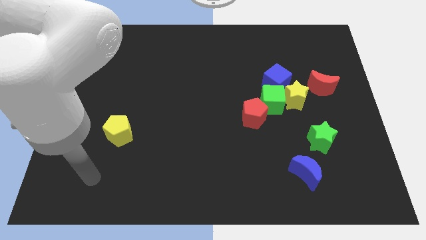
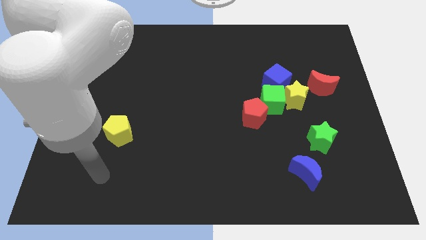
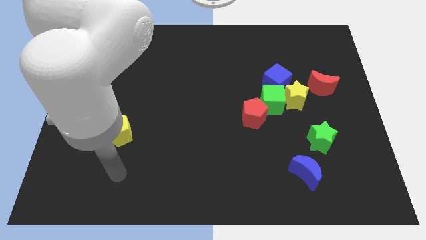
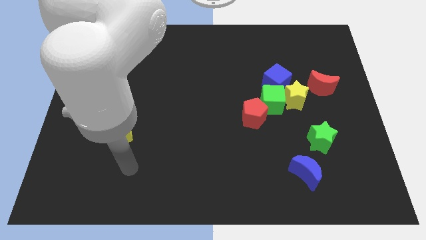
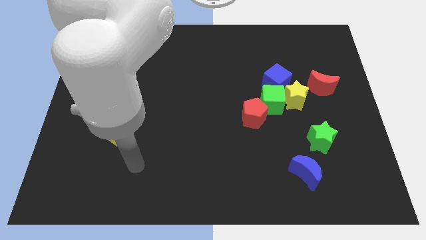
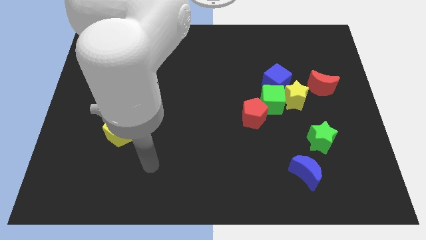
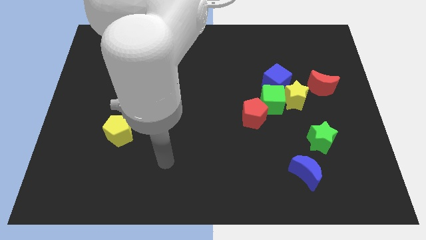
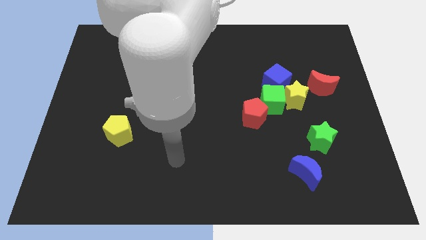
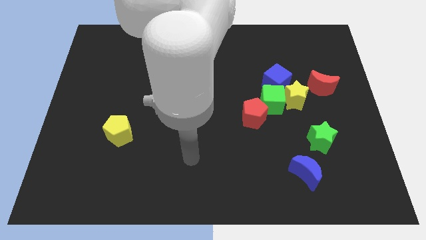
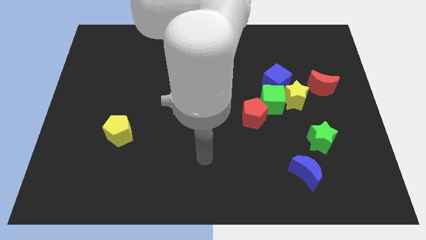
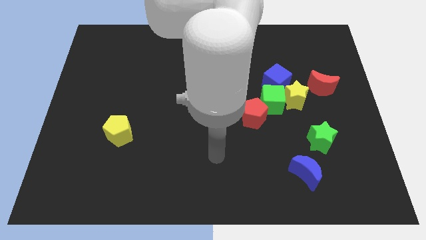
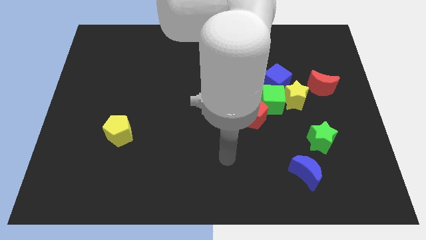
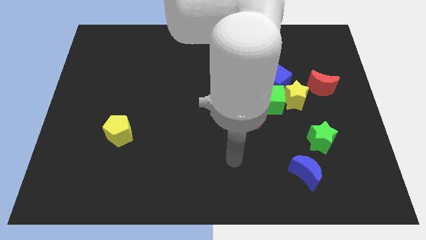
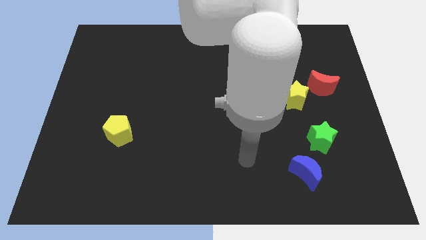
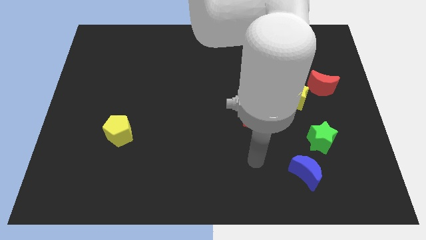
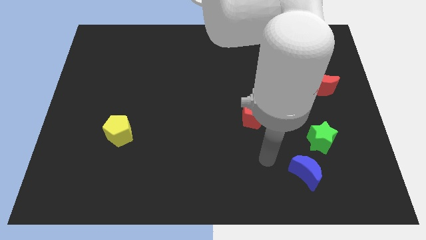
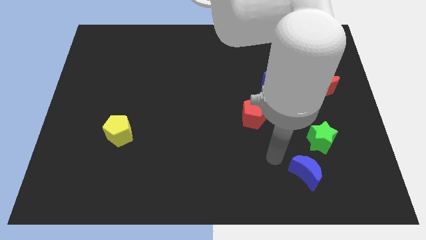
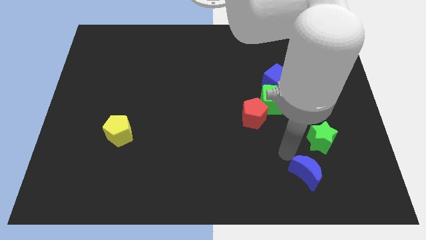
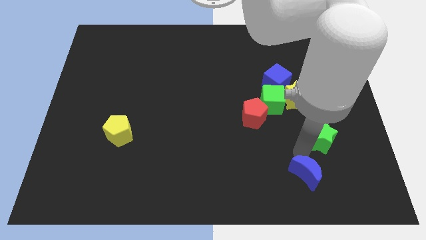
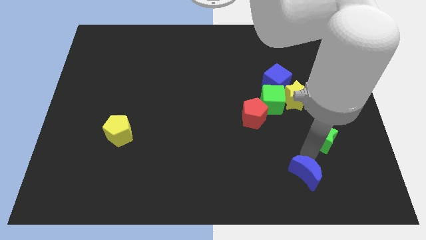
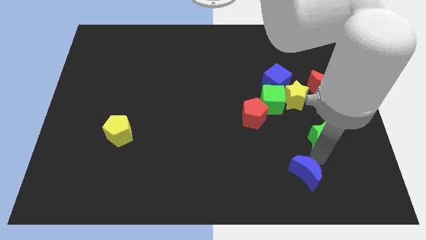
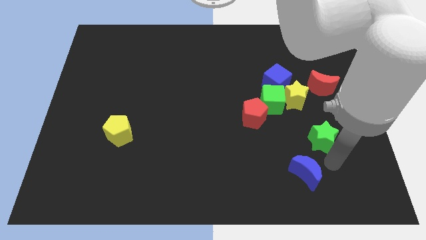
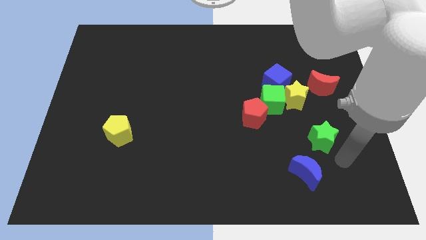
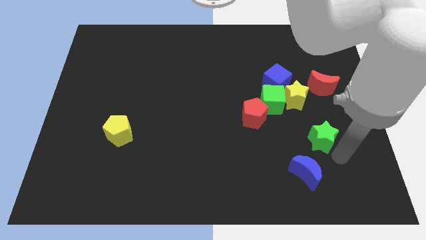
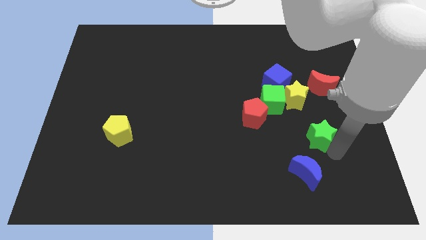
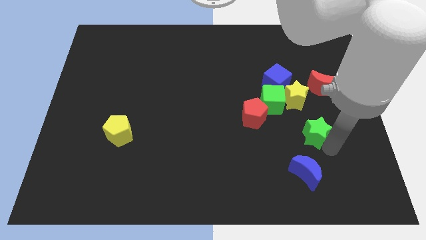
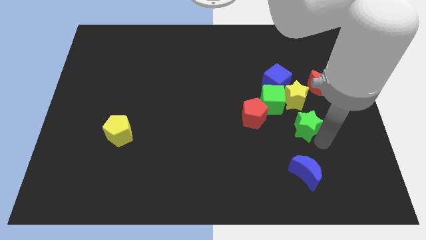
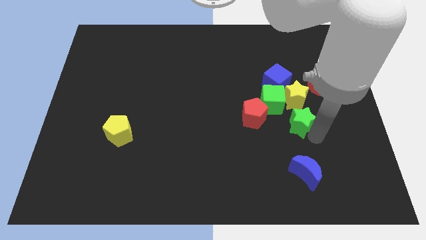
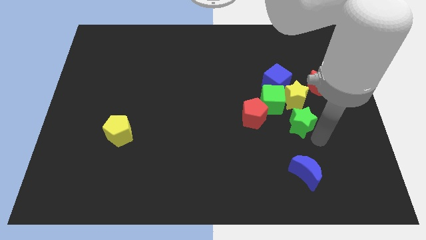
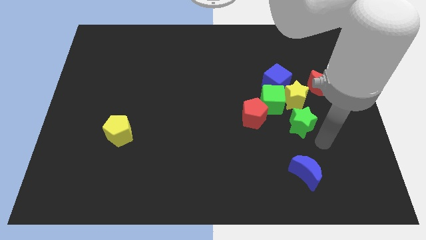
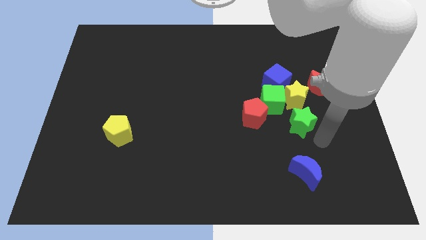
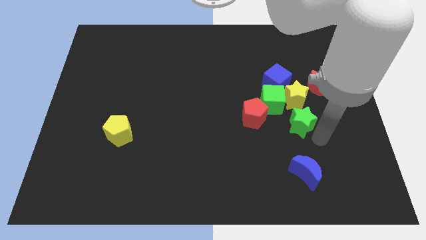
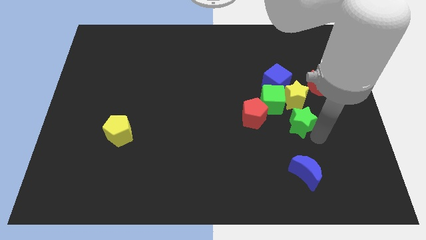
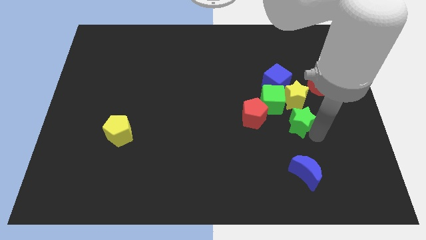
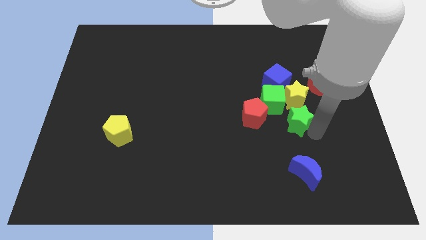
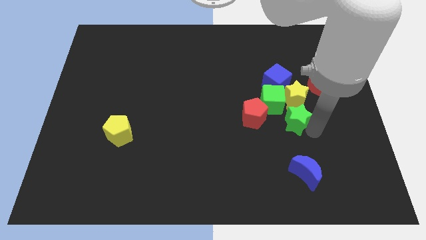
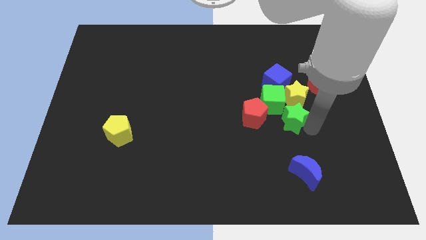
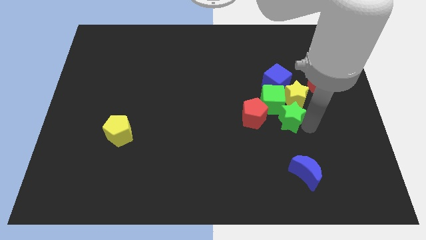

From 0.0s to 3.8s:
slide the green star towards the green cube

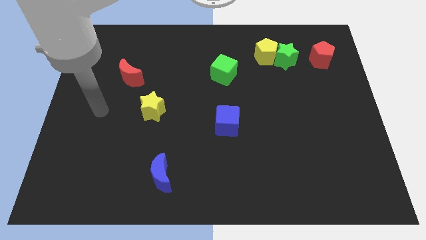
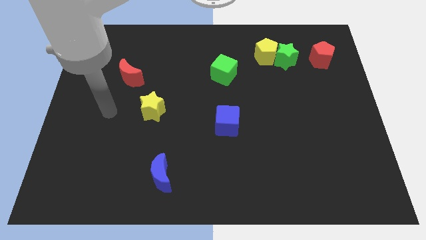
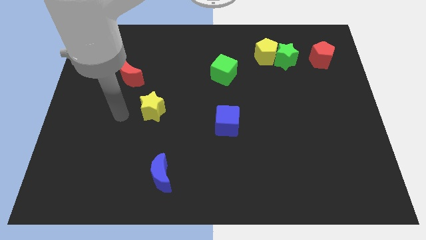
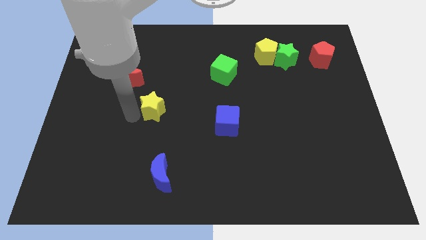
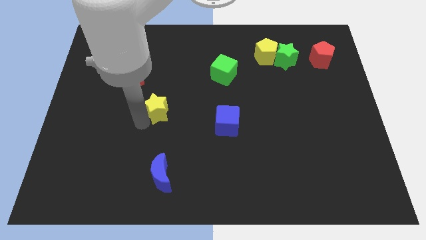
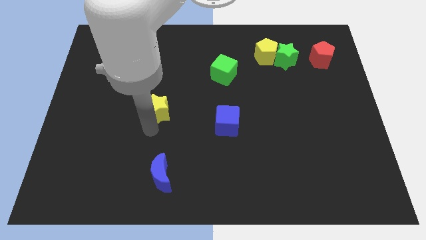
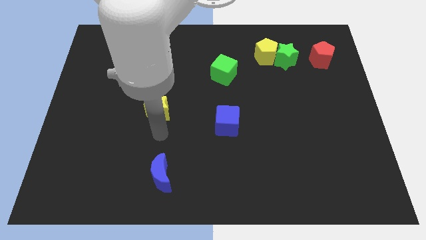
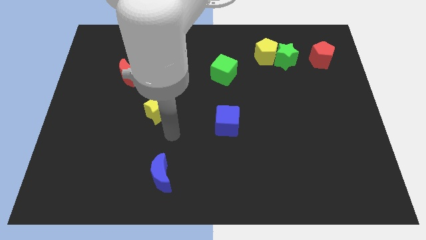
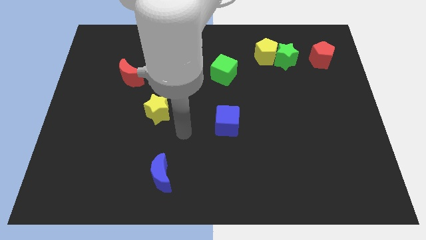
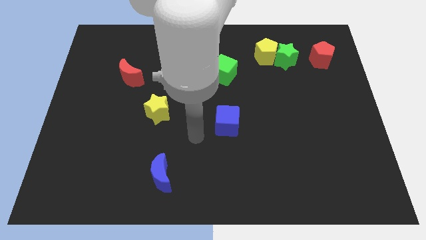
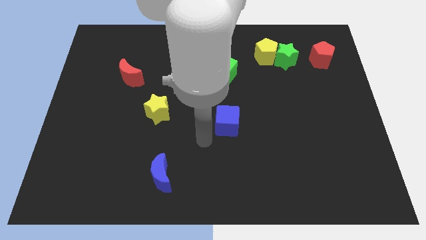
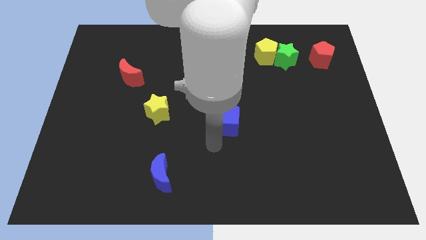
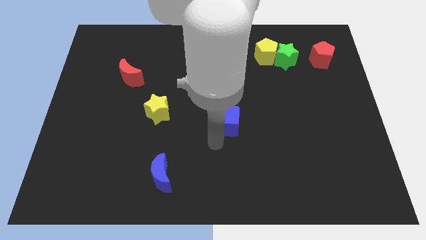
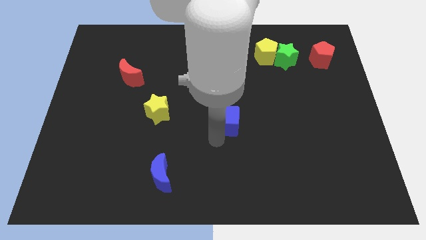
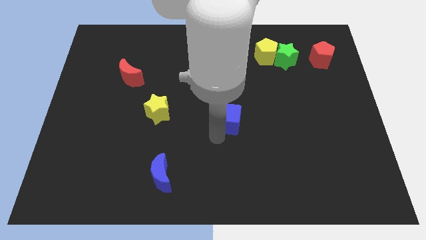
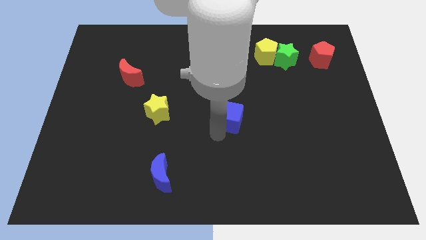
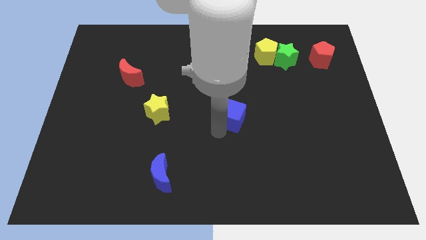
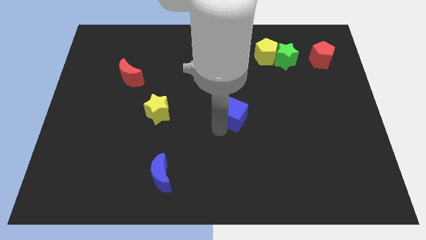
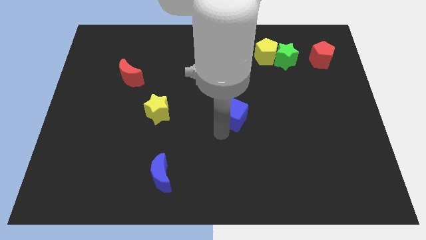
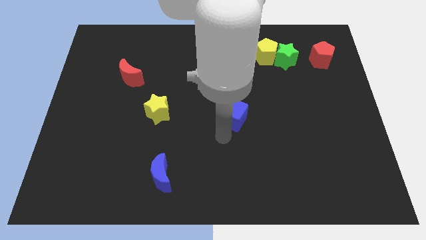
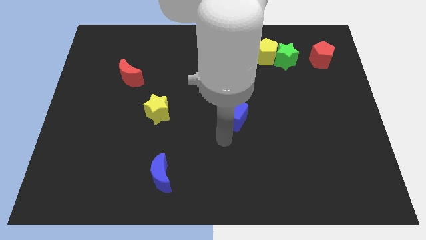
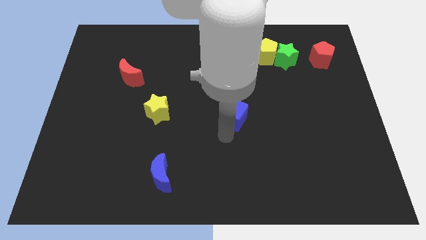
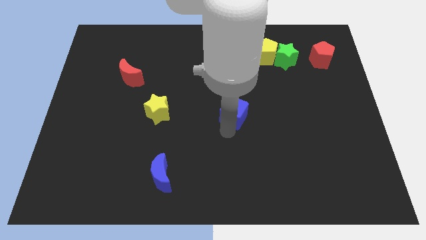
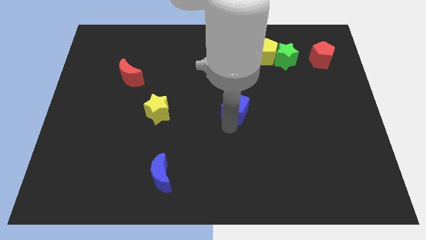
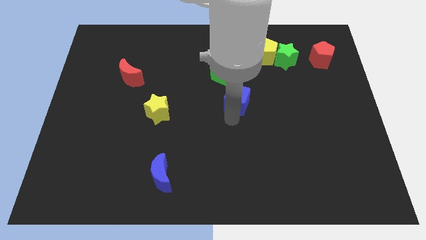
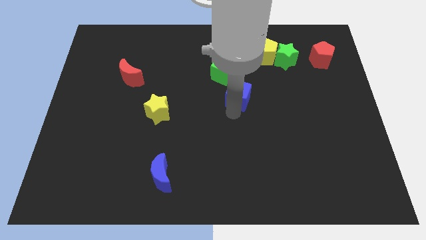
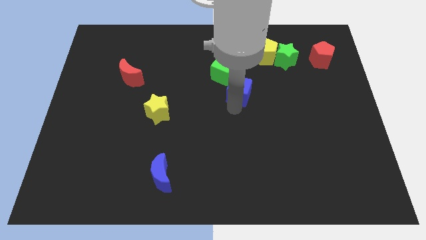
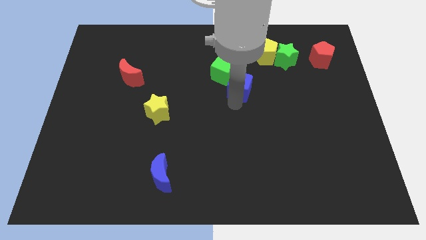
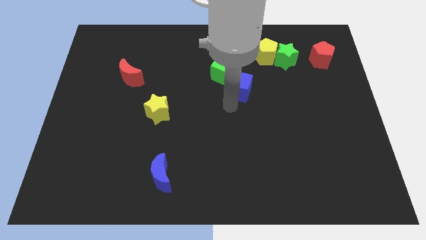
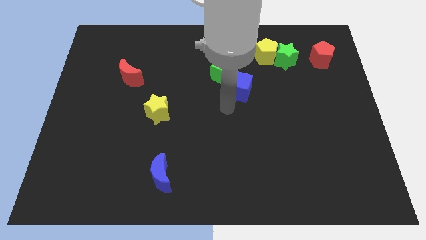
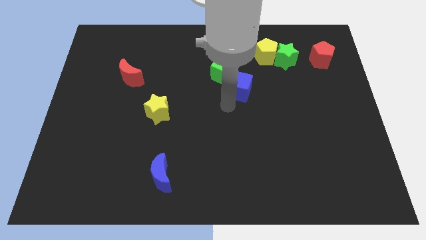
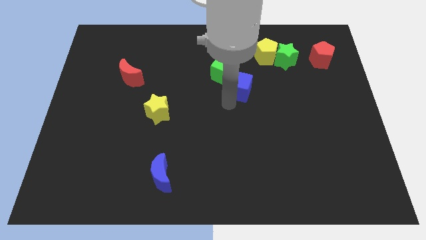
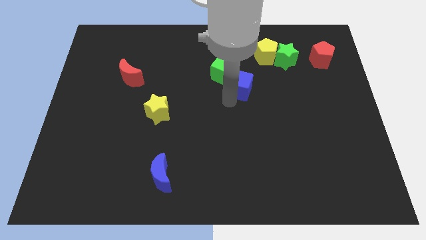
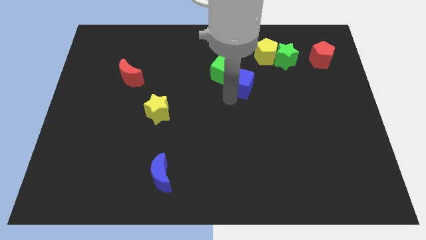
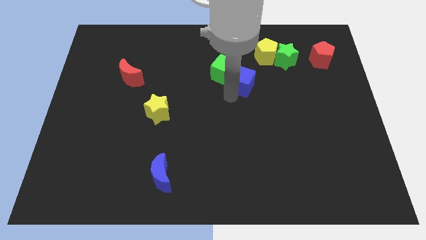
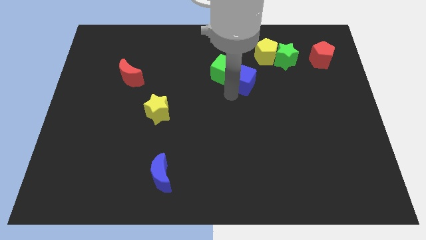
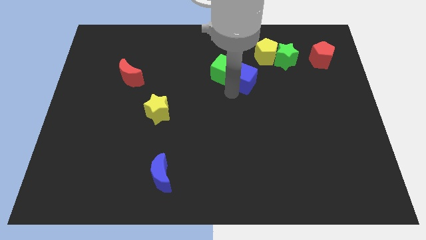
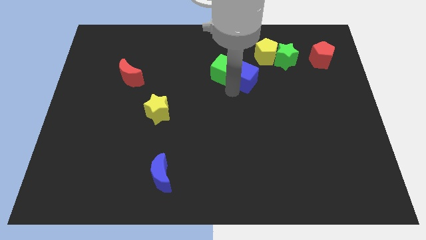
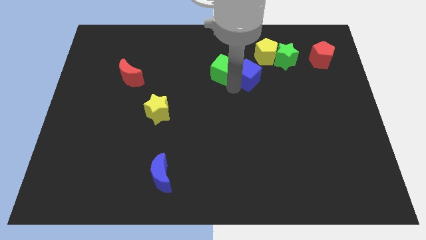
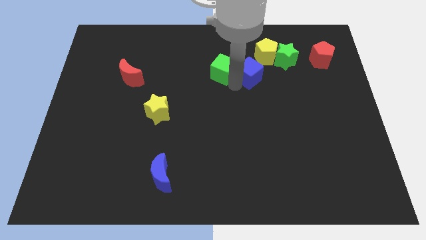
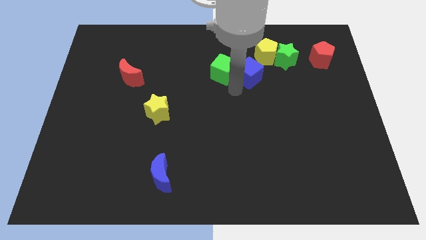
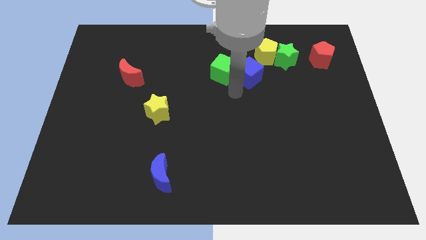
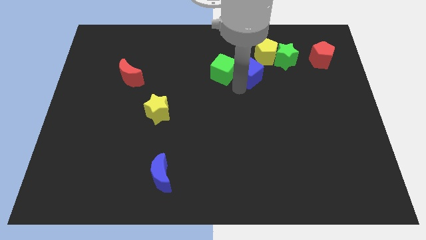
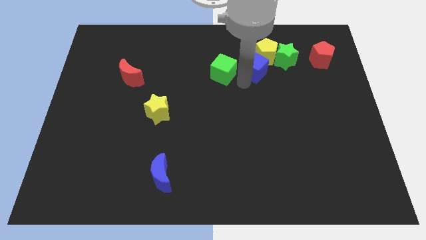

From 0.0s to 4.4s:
put the blue cube next to the yellow pentagon

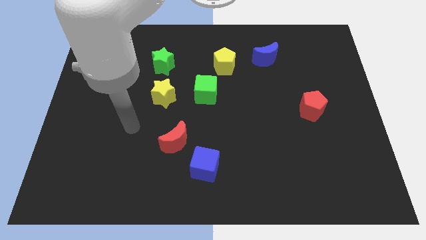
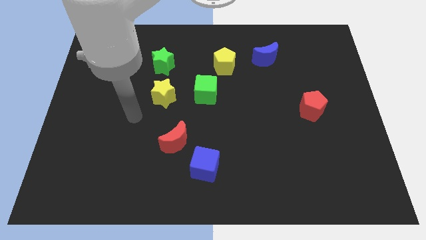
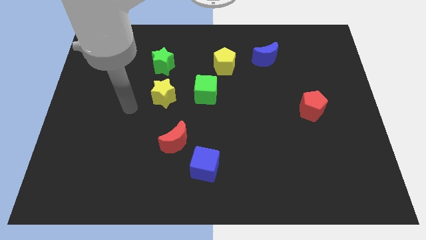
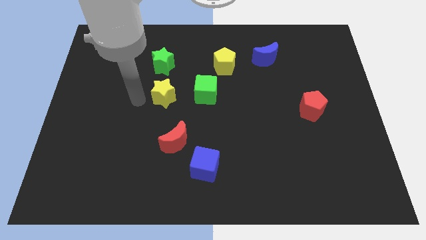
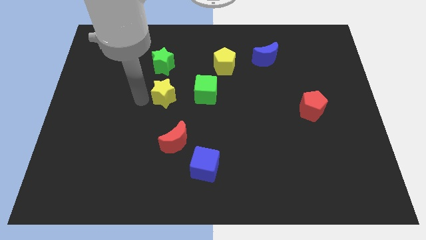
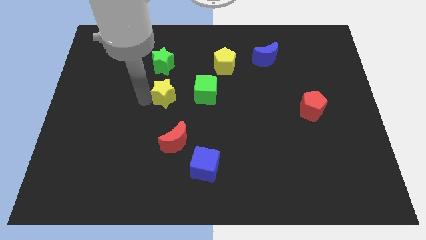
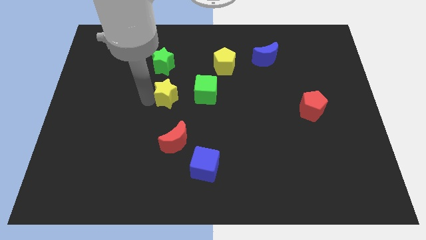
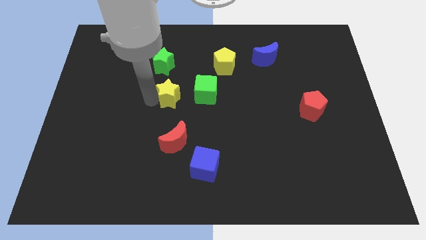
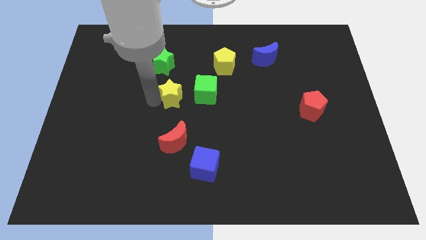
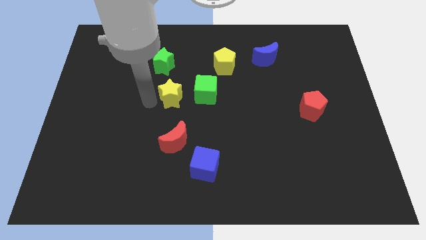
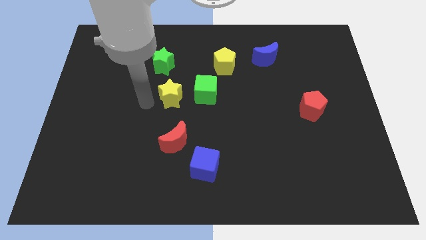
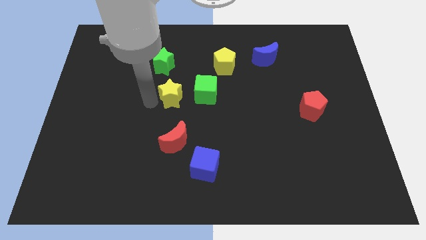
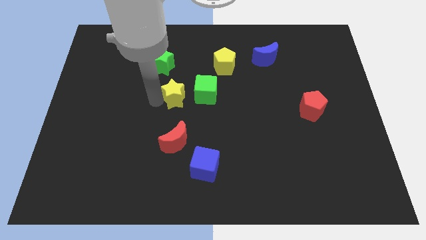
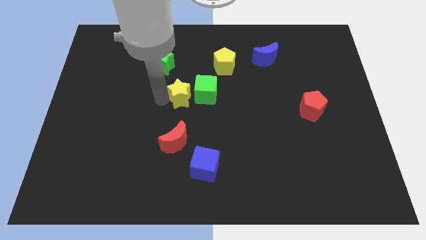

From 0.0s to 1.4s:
put the yellow star towards the green cube
